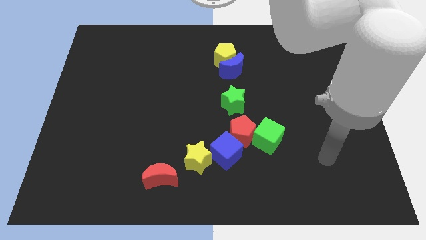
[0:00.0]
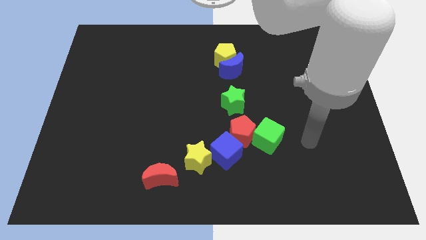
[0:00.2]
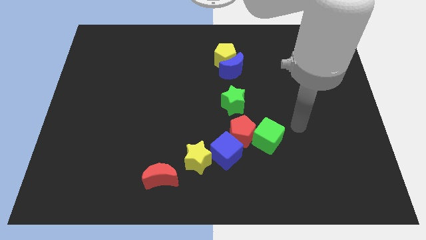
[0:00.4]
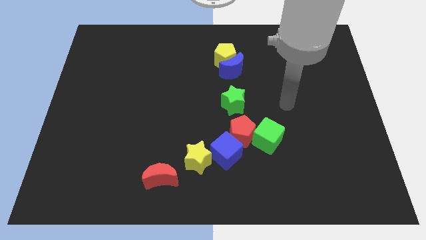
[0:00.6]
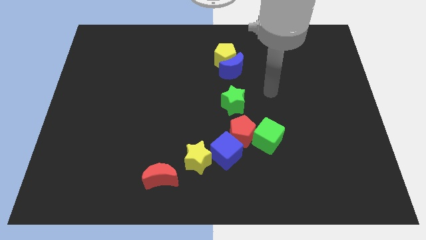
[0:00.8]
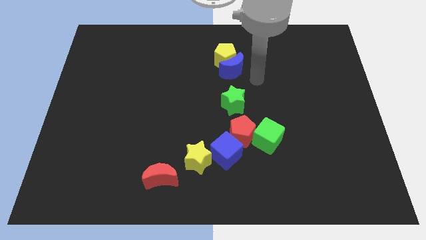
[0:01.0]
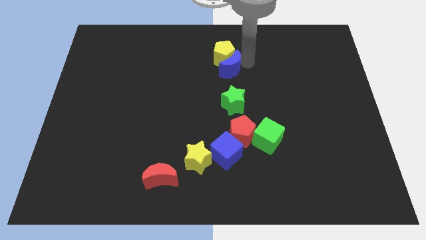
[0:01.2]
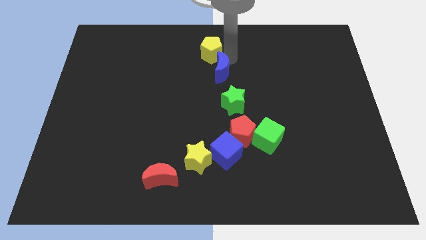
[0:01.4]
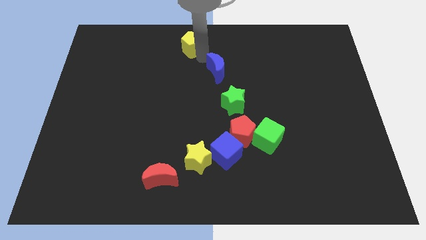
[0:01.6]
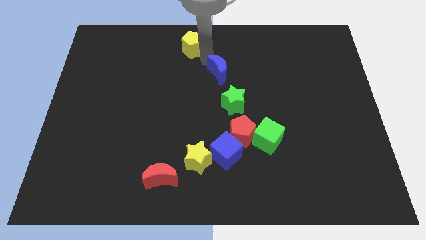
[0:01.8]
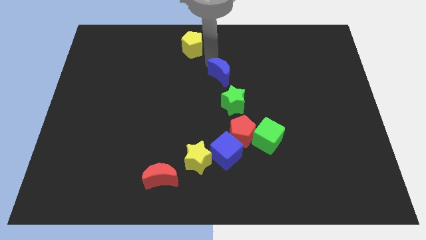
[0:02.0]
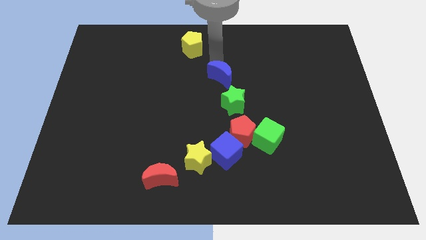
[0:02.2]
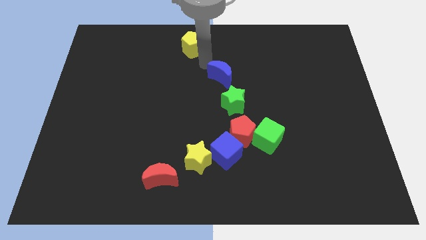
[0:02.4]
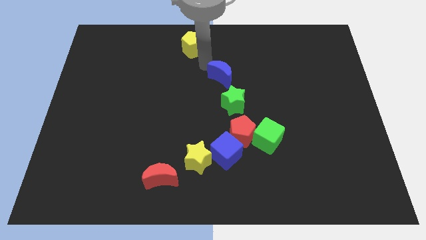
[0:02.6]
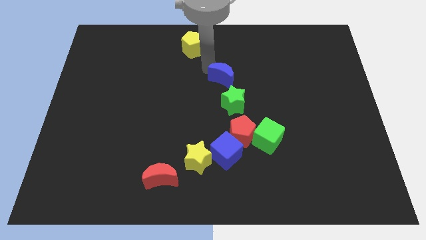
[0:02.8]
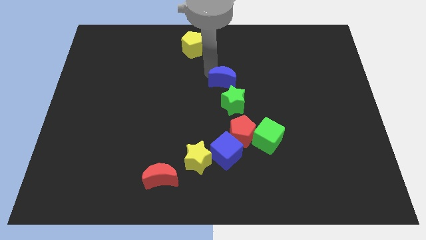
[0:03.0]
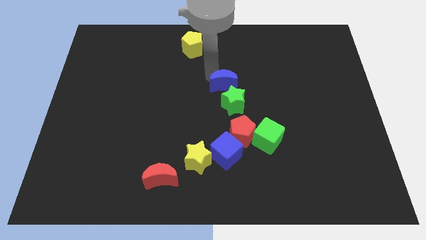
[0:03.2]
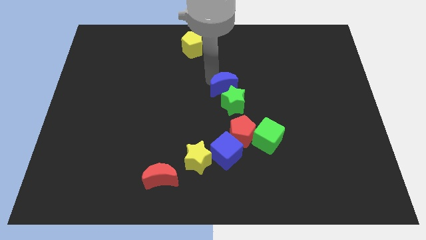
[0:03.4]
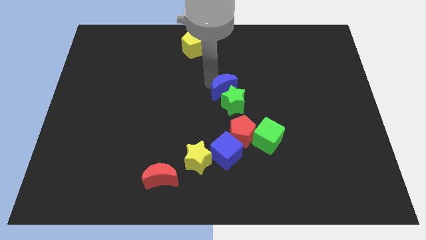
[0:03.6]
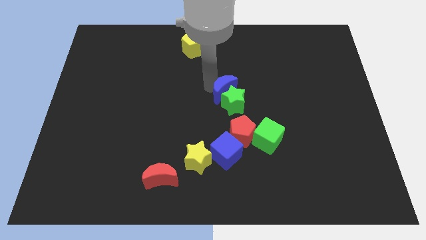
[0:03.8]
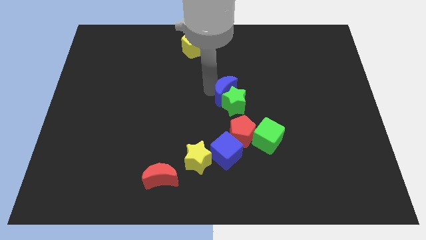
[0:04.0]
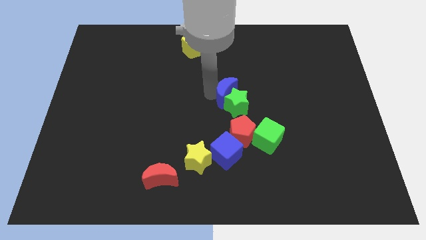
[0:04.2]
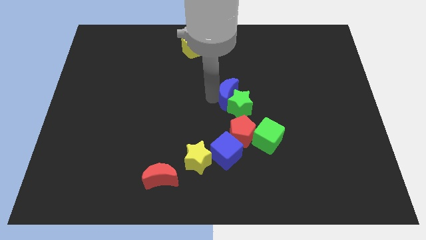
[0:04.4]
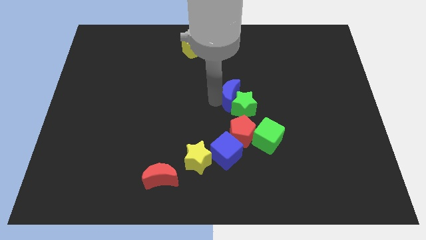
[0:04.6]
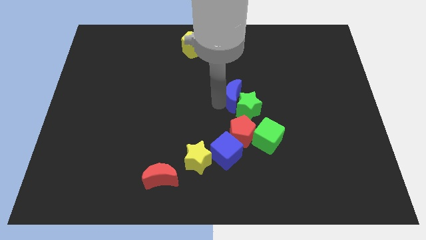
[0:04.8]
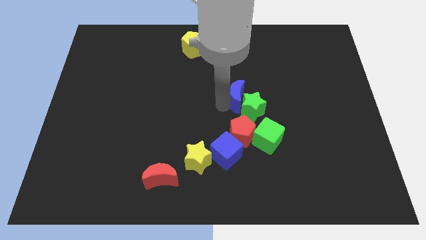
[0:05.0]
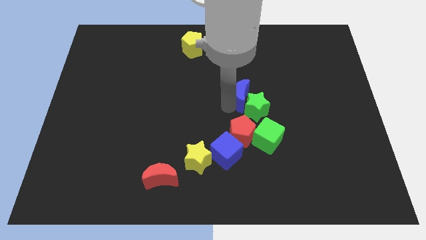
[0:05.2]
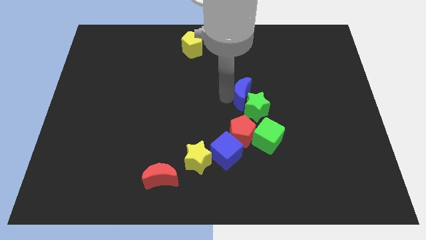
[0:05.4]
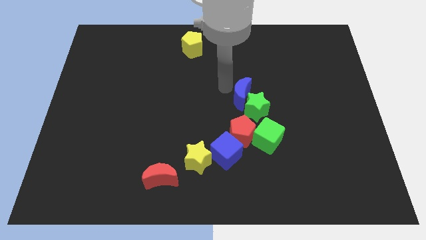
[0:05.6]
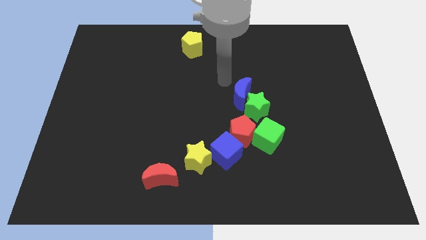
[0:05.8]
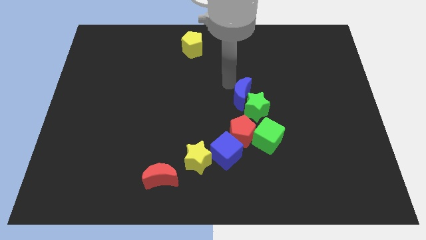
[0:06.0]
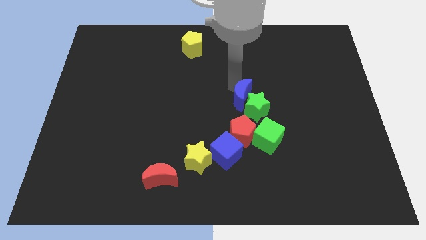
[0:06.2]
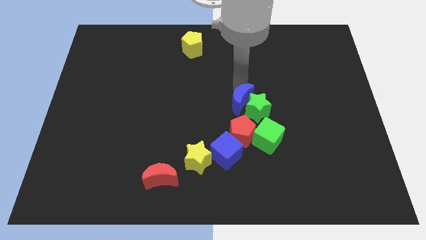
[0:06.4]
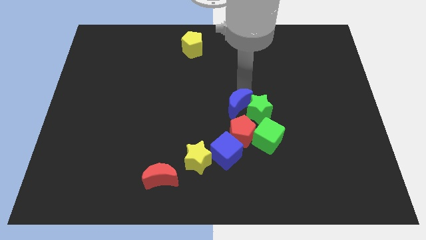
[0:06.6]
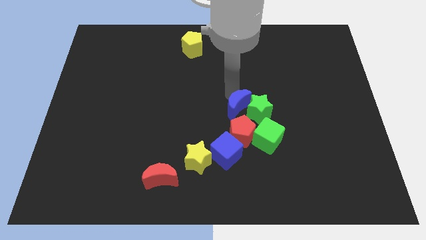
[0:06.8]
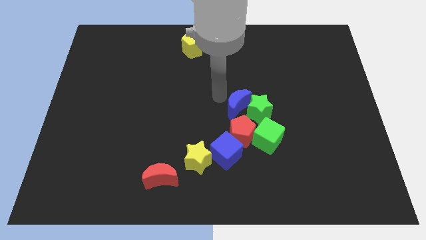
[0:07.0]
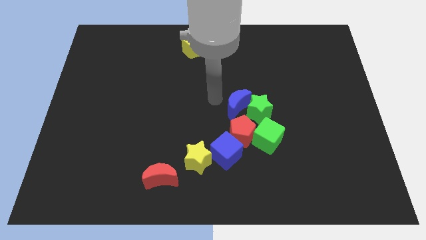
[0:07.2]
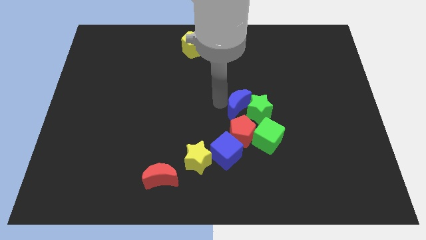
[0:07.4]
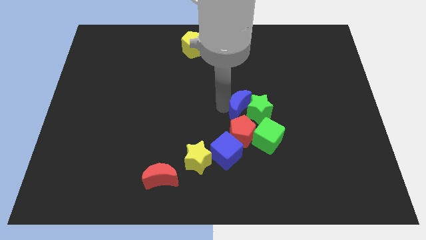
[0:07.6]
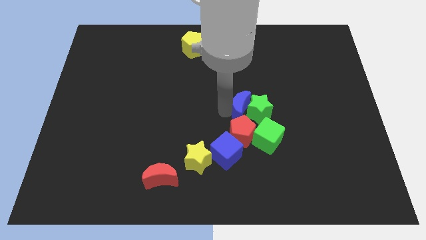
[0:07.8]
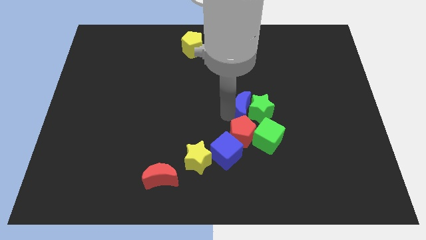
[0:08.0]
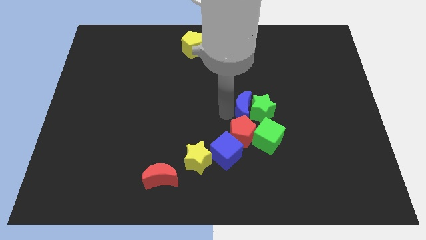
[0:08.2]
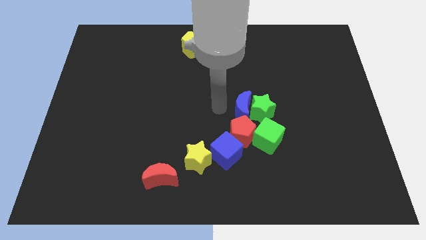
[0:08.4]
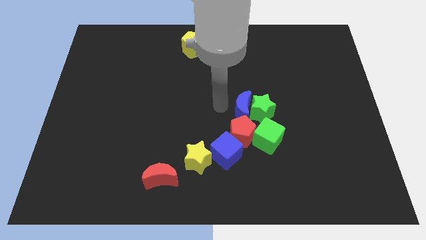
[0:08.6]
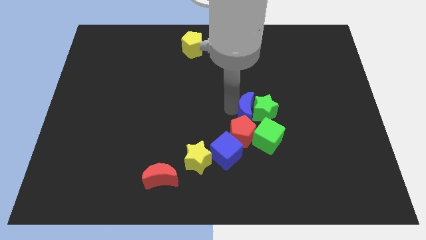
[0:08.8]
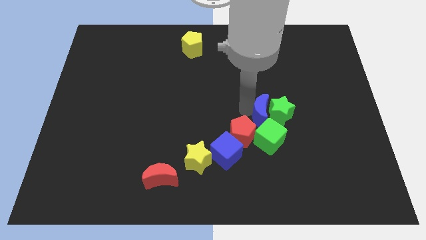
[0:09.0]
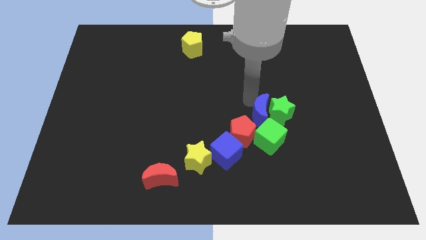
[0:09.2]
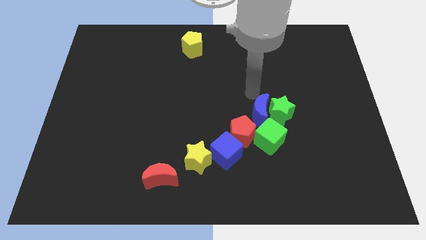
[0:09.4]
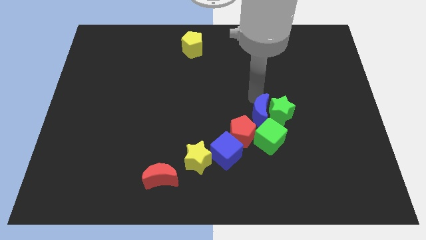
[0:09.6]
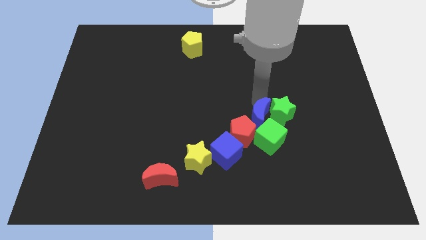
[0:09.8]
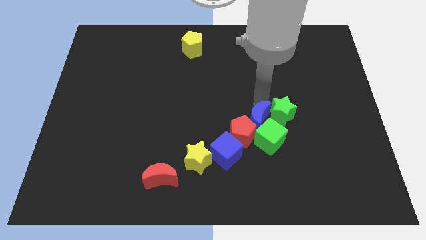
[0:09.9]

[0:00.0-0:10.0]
push the blue moon towards the green cube

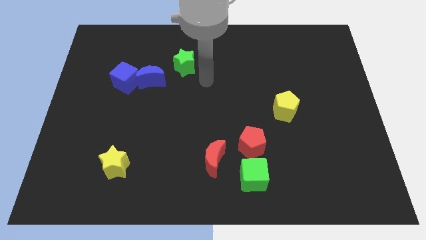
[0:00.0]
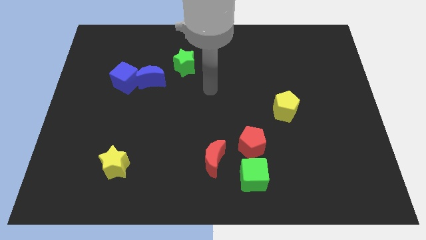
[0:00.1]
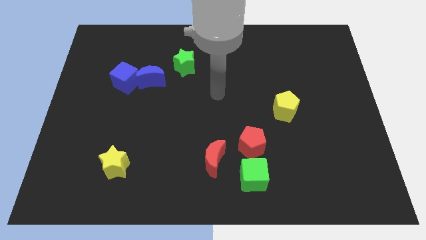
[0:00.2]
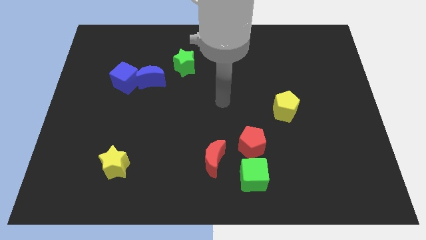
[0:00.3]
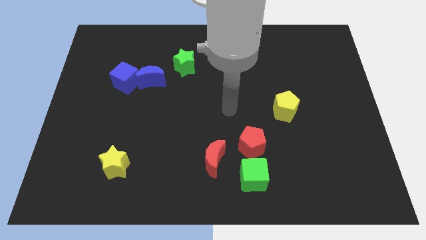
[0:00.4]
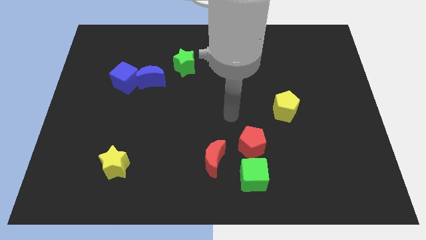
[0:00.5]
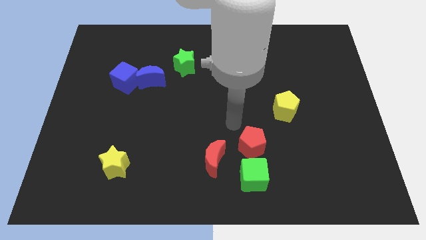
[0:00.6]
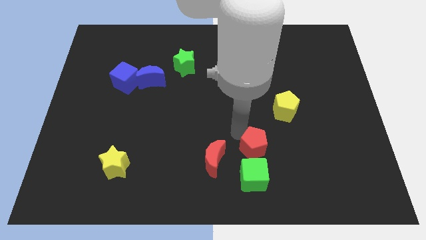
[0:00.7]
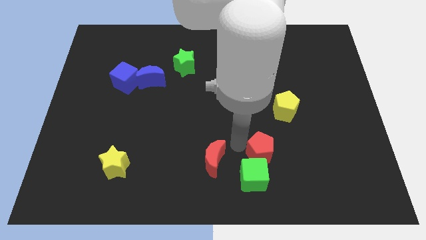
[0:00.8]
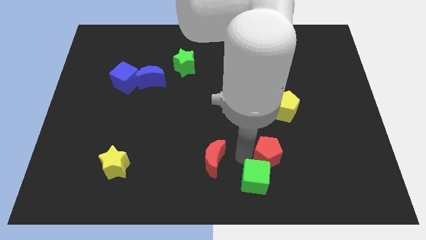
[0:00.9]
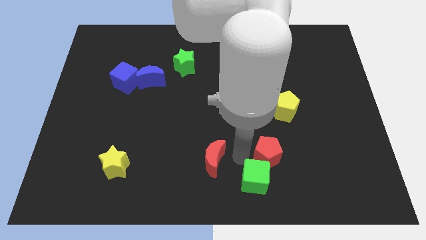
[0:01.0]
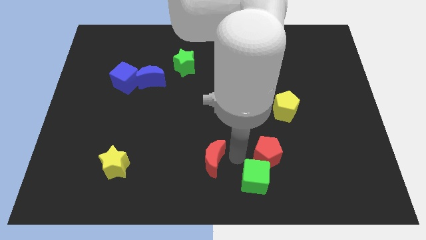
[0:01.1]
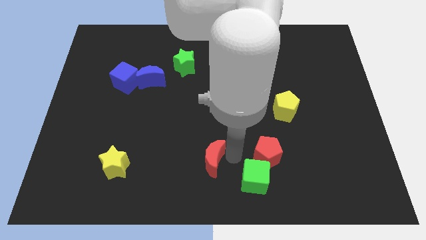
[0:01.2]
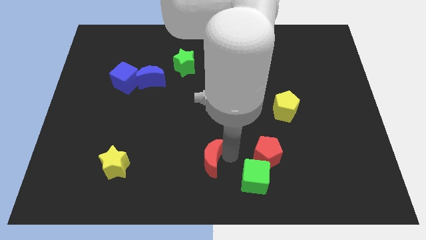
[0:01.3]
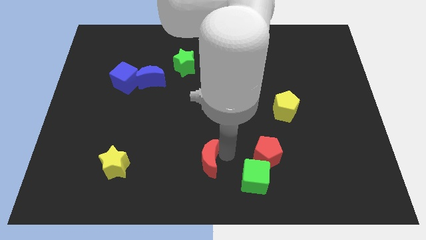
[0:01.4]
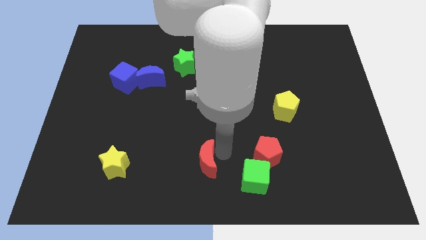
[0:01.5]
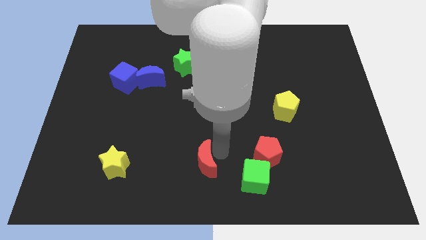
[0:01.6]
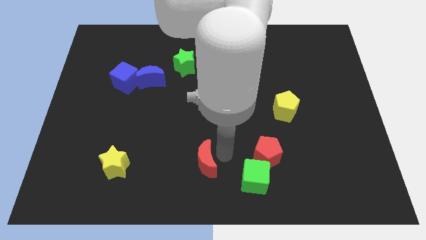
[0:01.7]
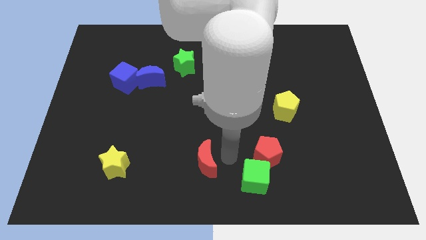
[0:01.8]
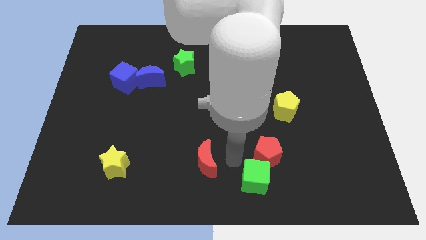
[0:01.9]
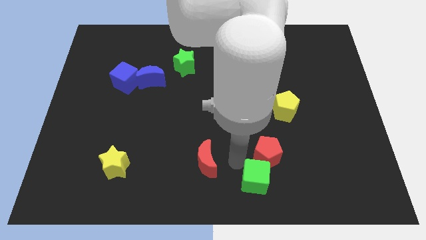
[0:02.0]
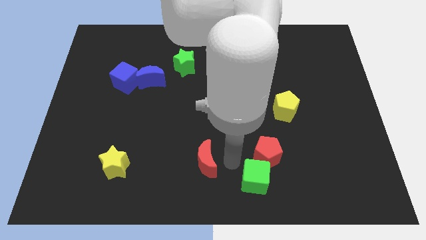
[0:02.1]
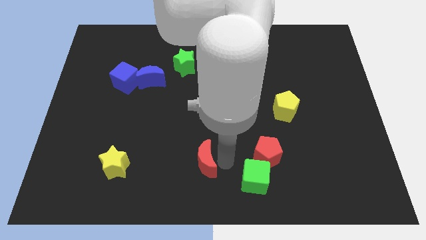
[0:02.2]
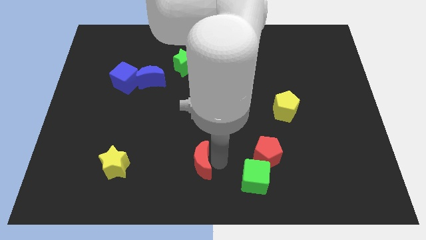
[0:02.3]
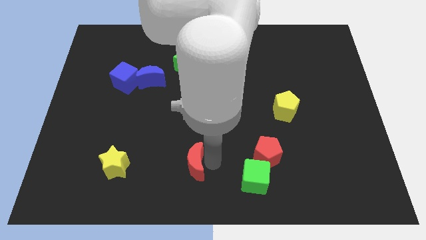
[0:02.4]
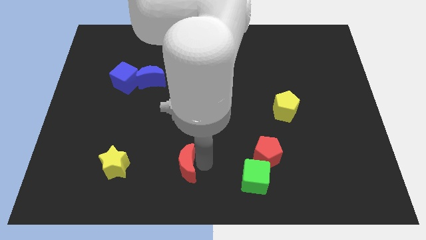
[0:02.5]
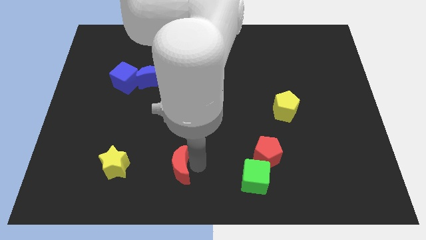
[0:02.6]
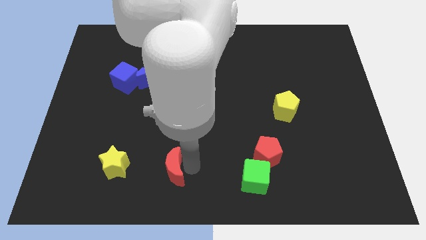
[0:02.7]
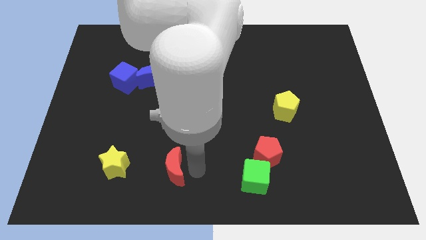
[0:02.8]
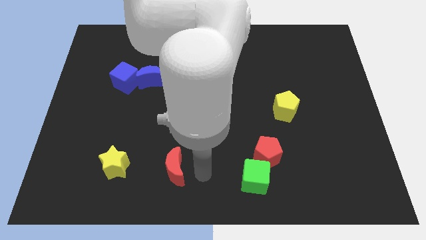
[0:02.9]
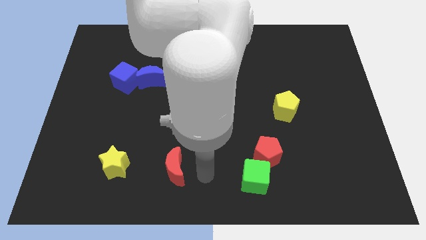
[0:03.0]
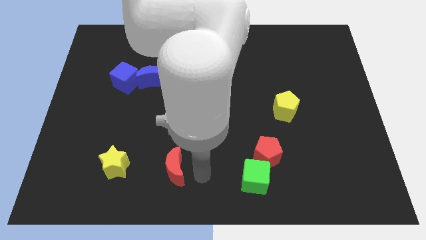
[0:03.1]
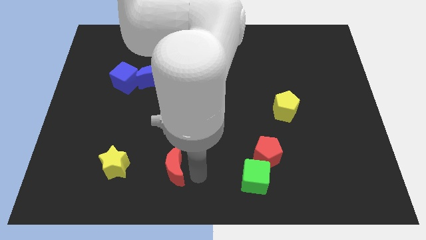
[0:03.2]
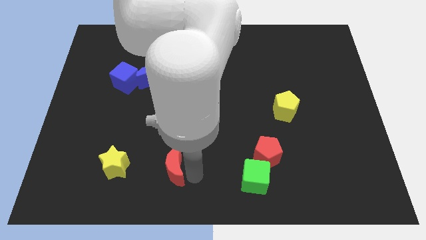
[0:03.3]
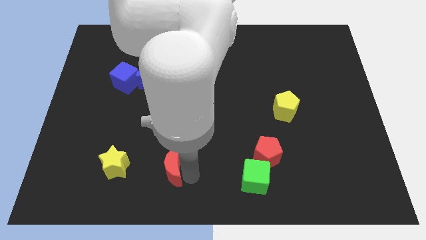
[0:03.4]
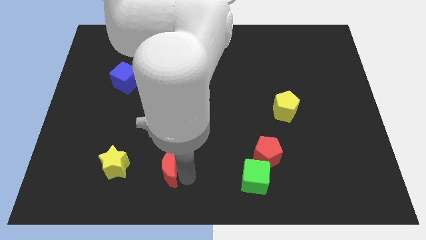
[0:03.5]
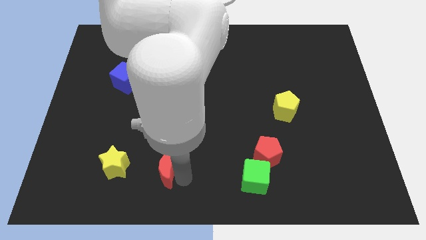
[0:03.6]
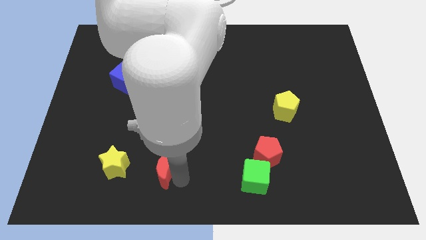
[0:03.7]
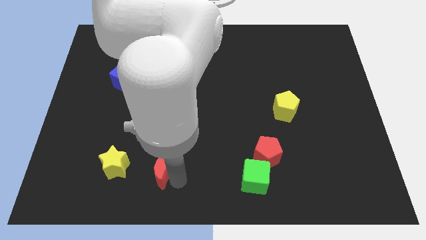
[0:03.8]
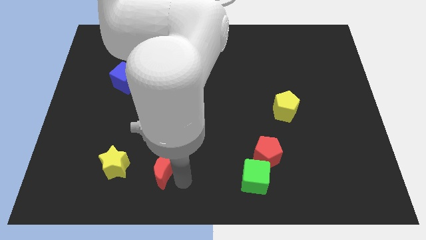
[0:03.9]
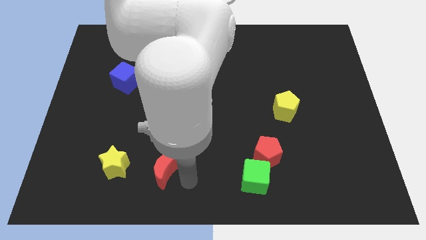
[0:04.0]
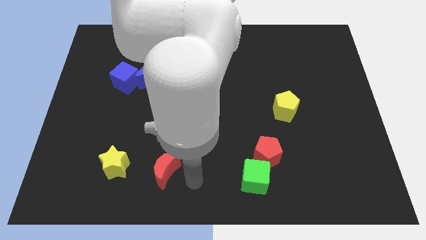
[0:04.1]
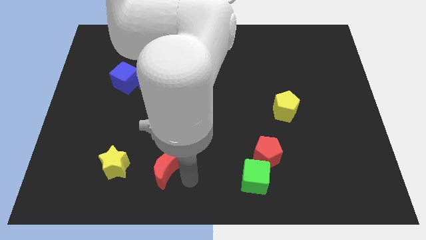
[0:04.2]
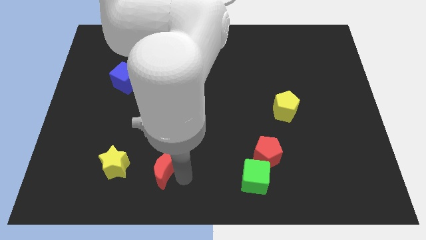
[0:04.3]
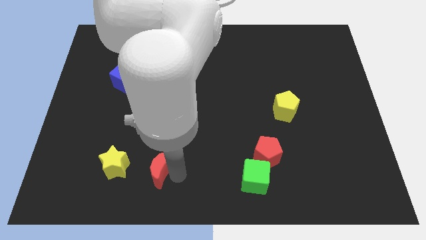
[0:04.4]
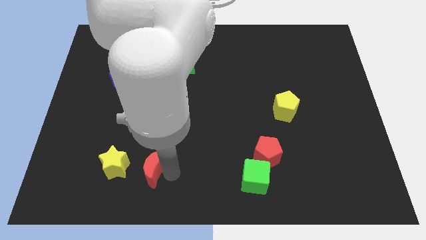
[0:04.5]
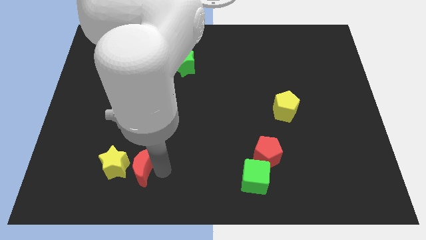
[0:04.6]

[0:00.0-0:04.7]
move the red moon next to the yellow star
